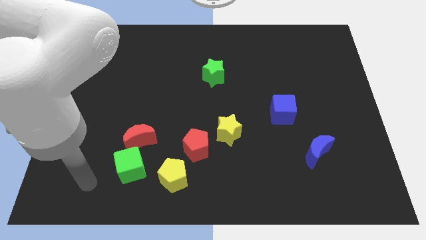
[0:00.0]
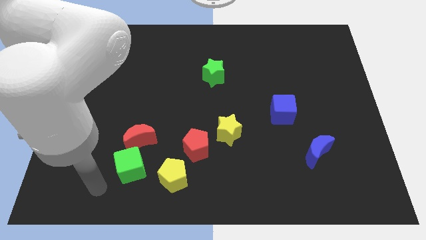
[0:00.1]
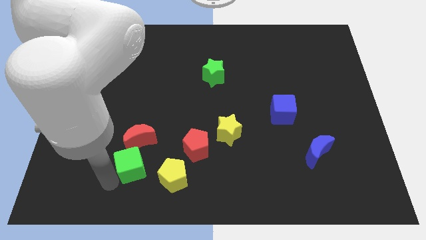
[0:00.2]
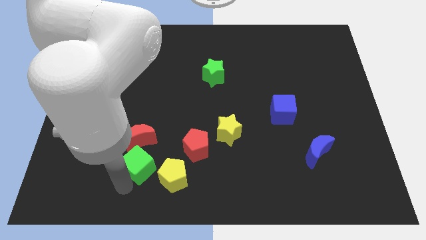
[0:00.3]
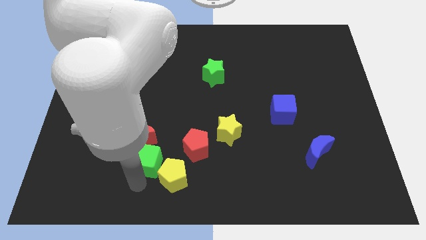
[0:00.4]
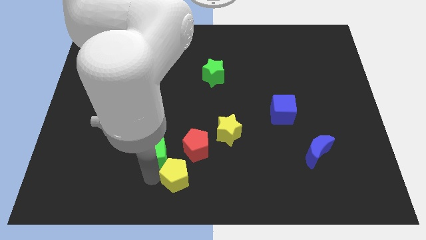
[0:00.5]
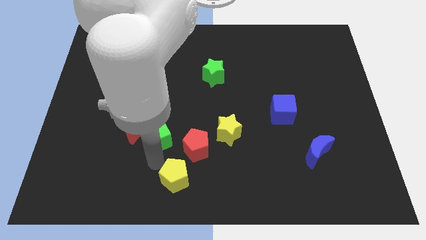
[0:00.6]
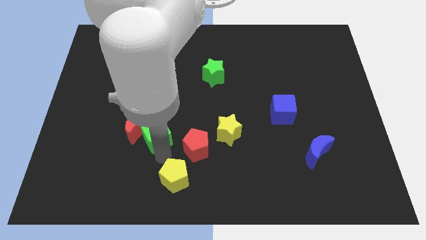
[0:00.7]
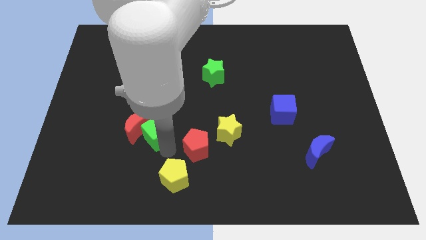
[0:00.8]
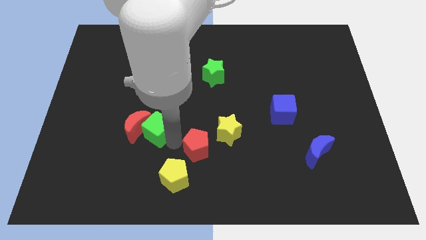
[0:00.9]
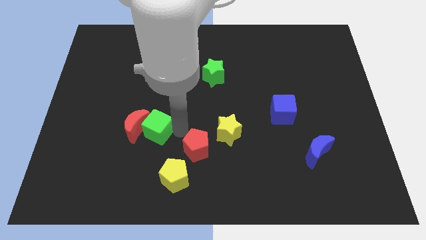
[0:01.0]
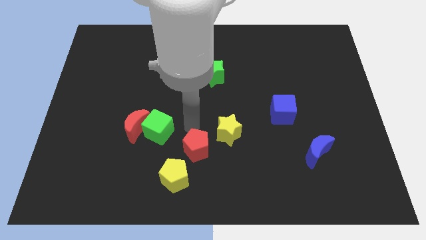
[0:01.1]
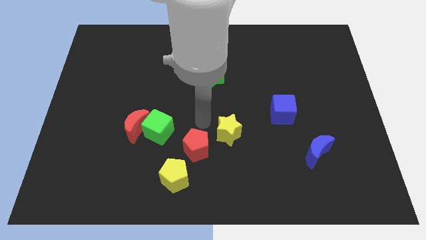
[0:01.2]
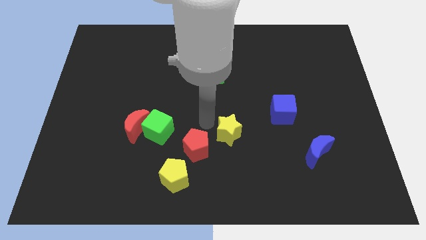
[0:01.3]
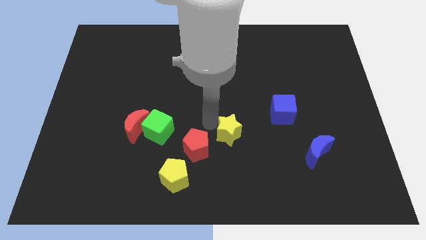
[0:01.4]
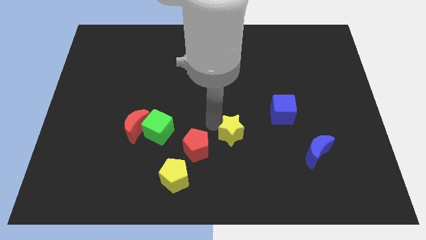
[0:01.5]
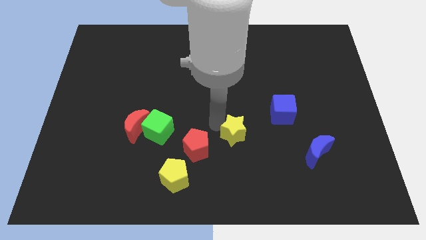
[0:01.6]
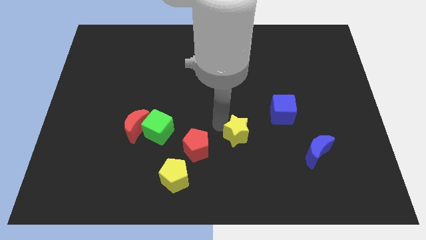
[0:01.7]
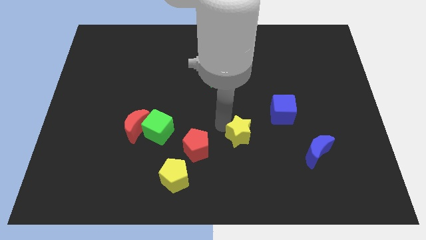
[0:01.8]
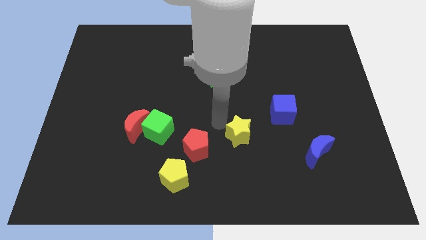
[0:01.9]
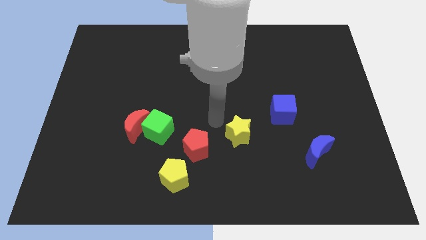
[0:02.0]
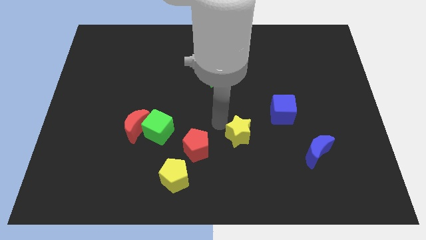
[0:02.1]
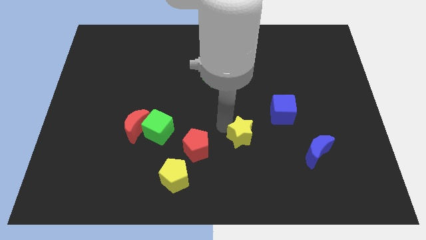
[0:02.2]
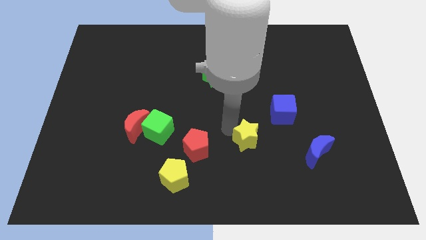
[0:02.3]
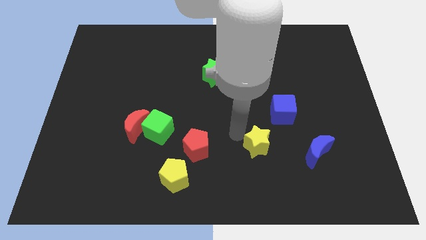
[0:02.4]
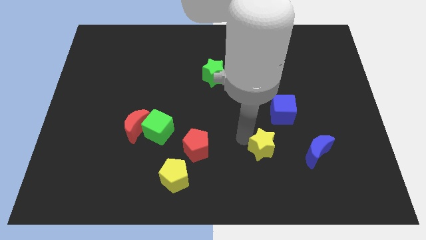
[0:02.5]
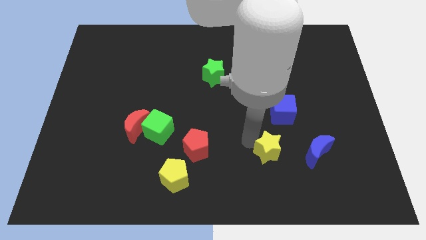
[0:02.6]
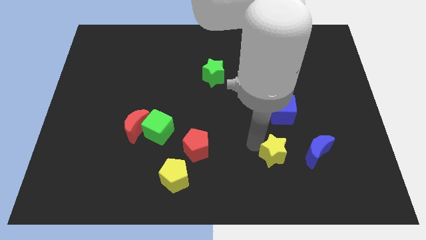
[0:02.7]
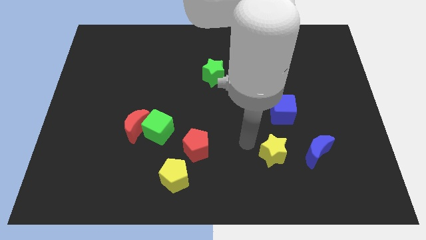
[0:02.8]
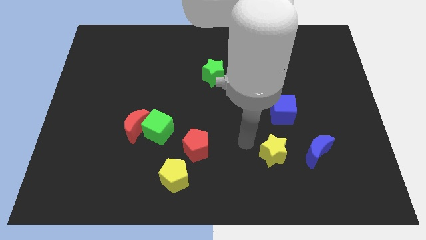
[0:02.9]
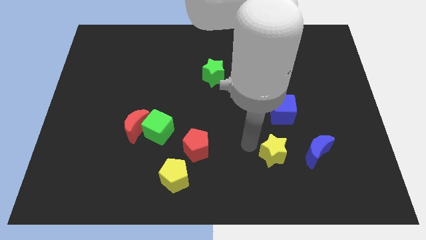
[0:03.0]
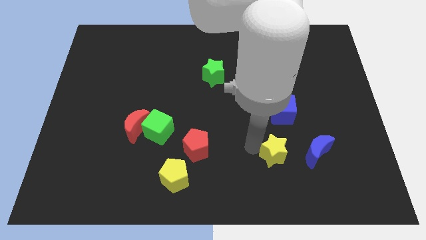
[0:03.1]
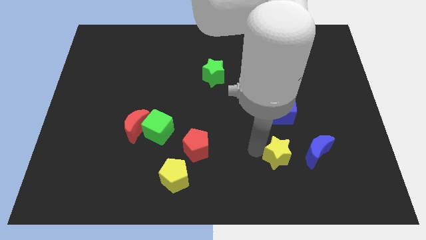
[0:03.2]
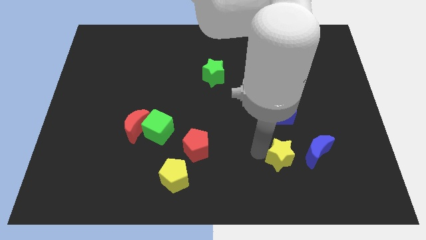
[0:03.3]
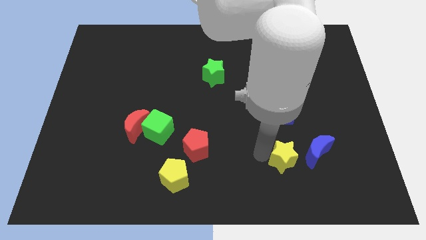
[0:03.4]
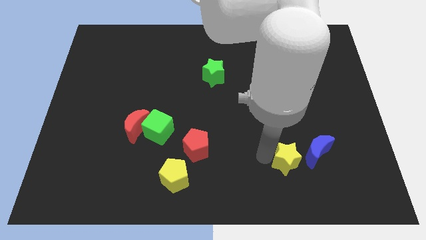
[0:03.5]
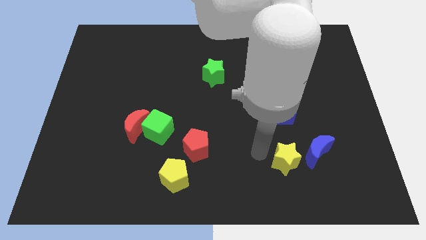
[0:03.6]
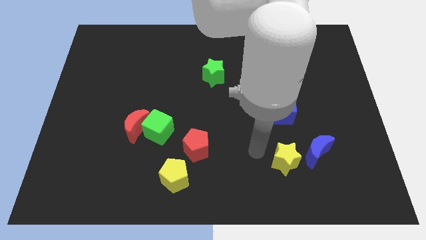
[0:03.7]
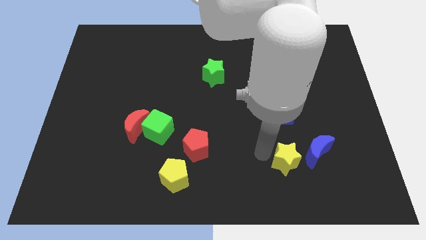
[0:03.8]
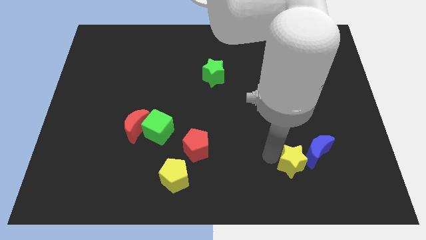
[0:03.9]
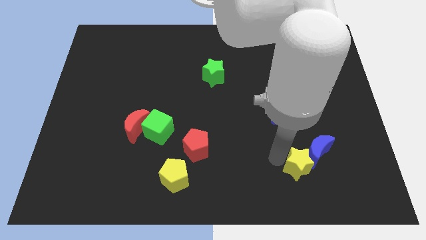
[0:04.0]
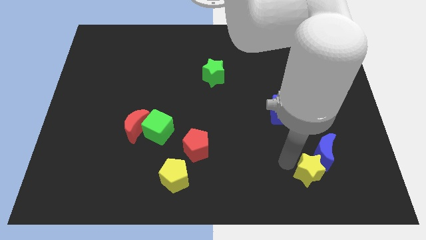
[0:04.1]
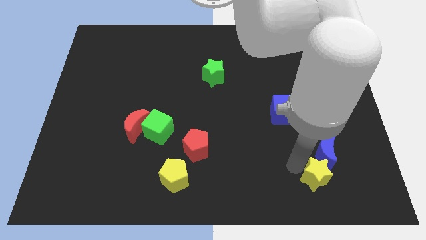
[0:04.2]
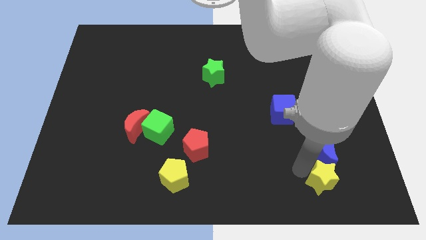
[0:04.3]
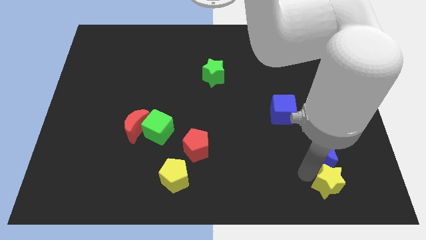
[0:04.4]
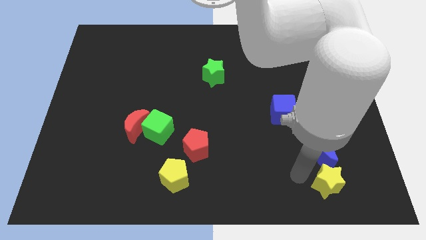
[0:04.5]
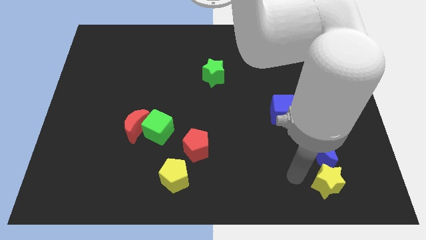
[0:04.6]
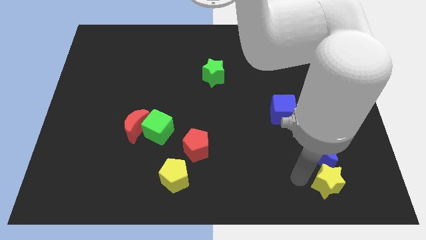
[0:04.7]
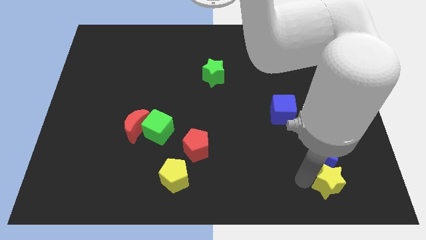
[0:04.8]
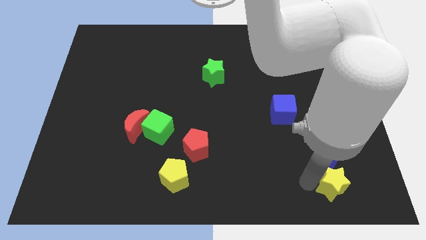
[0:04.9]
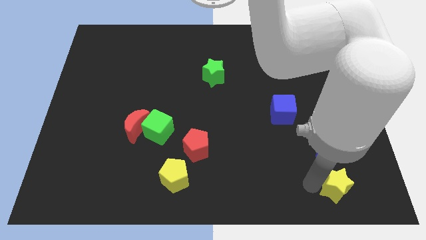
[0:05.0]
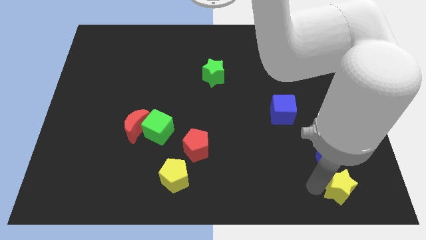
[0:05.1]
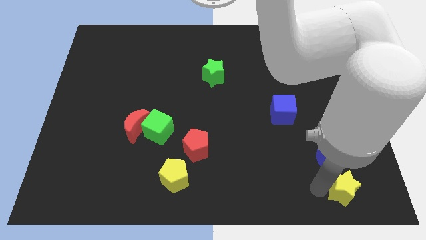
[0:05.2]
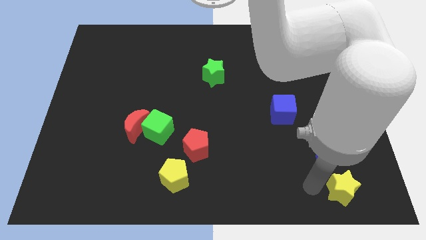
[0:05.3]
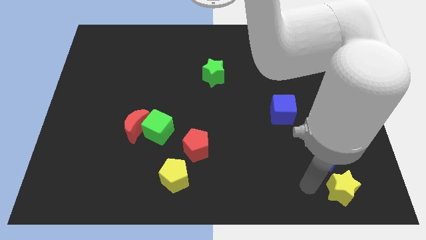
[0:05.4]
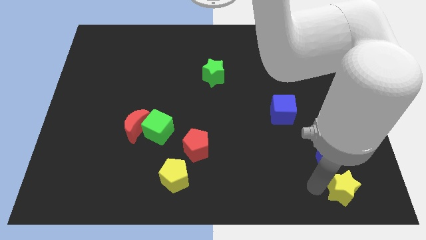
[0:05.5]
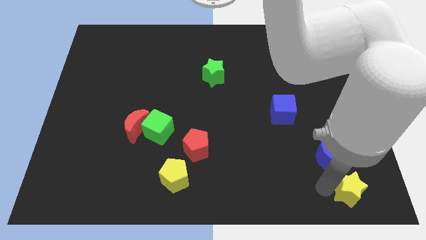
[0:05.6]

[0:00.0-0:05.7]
slide the yellow star to the bottom right corner
